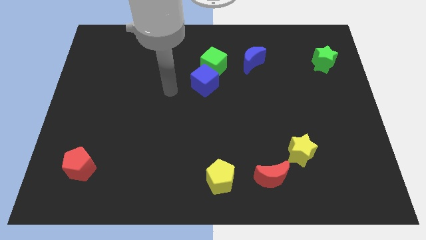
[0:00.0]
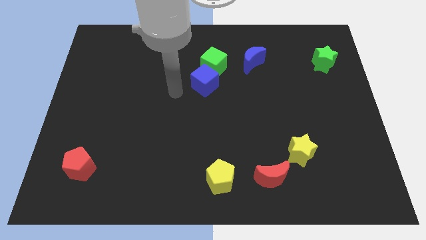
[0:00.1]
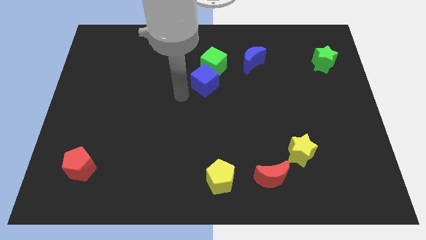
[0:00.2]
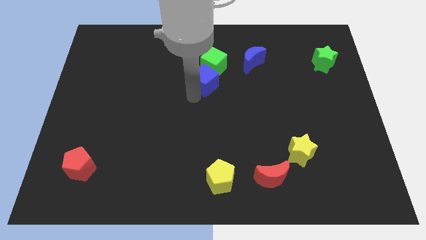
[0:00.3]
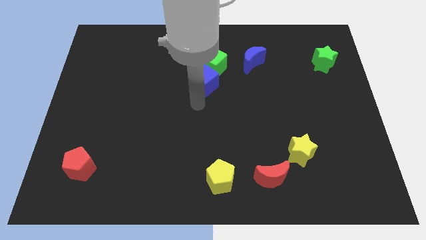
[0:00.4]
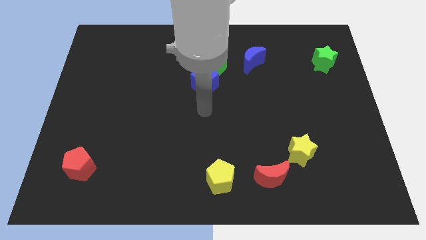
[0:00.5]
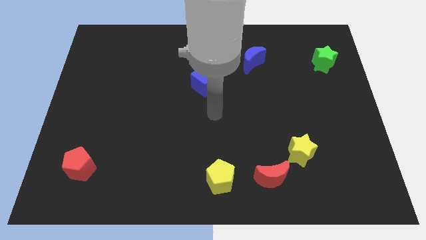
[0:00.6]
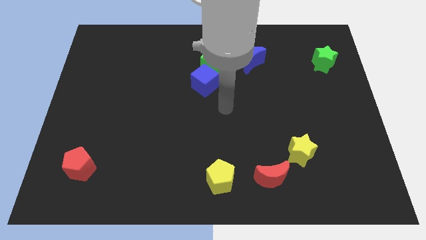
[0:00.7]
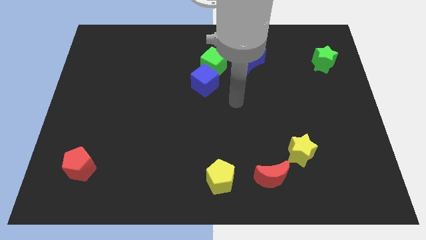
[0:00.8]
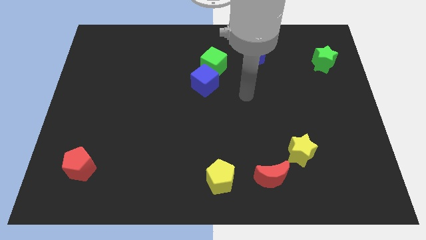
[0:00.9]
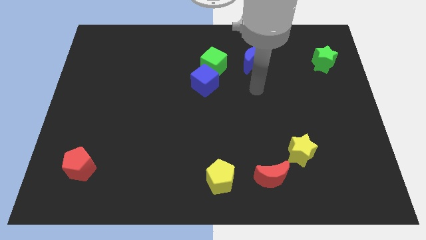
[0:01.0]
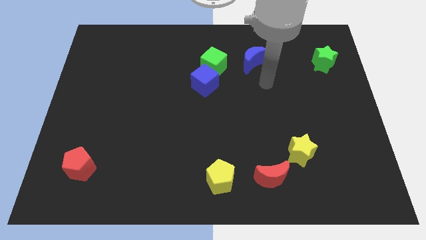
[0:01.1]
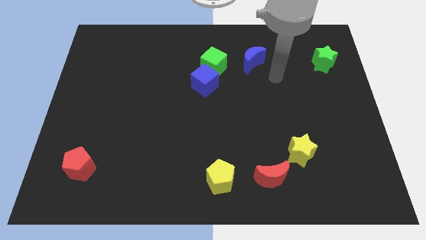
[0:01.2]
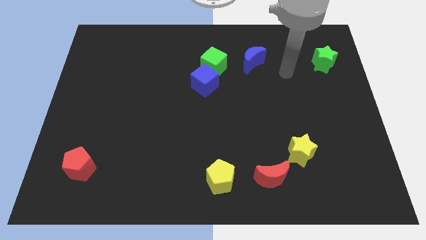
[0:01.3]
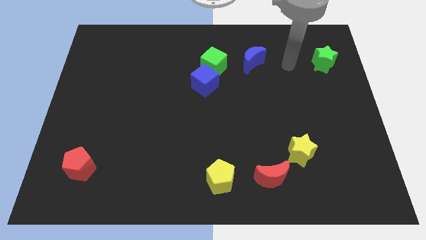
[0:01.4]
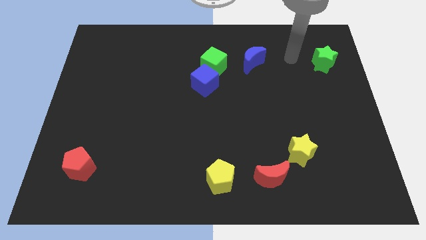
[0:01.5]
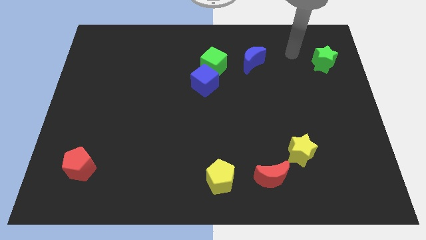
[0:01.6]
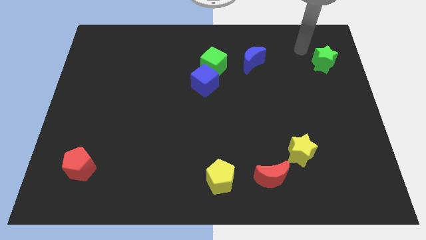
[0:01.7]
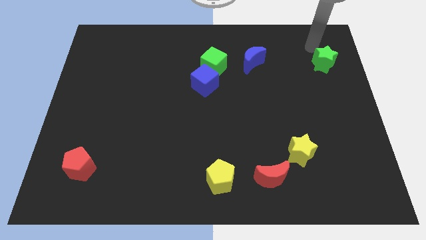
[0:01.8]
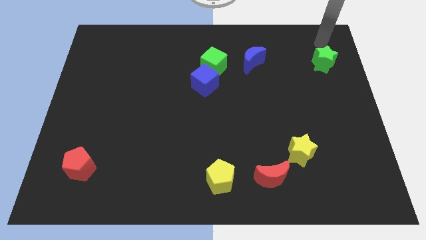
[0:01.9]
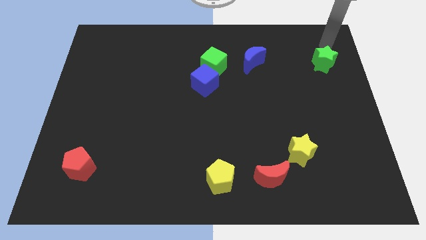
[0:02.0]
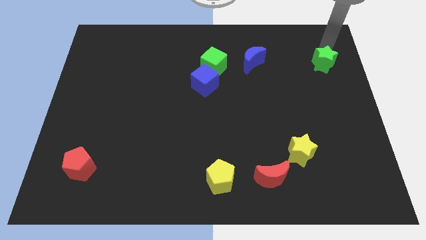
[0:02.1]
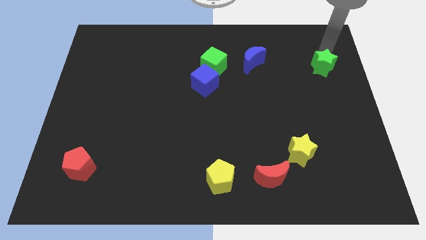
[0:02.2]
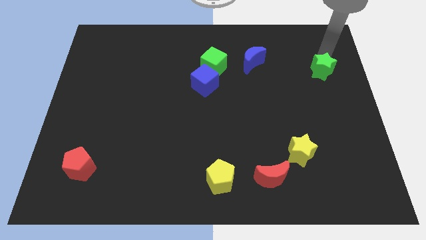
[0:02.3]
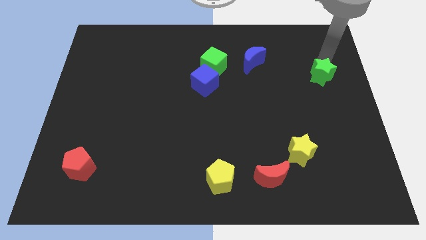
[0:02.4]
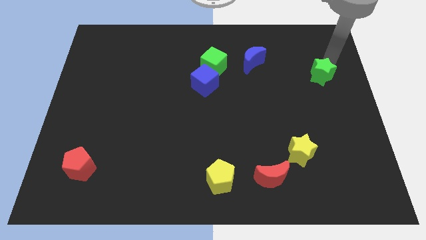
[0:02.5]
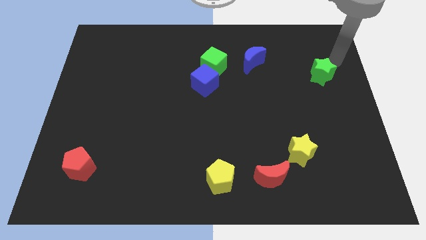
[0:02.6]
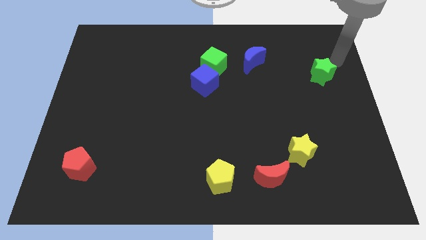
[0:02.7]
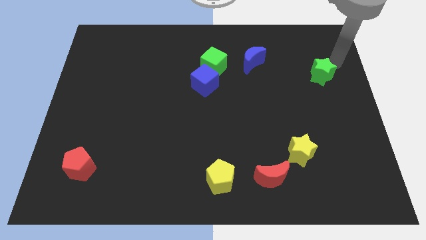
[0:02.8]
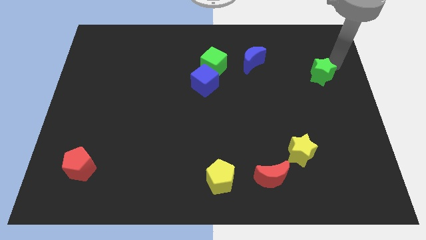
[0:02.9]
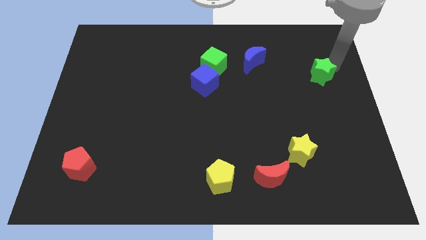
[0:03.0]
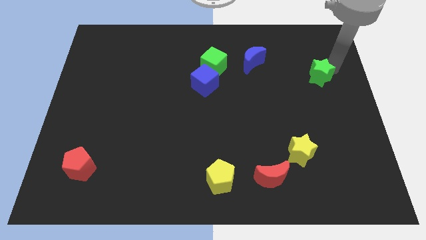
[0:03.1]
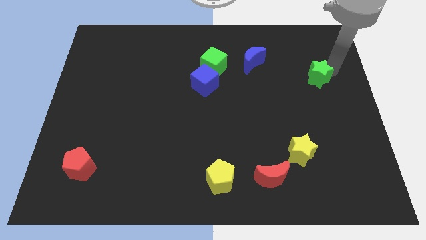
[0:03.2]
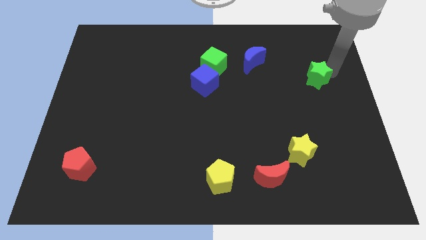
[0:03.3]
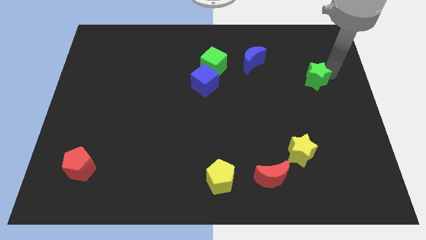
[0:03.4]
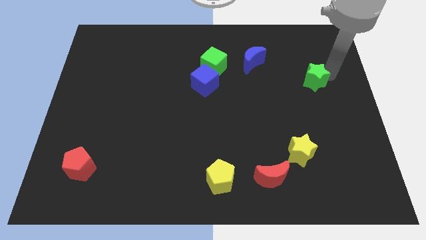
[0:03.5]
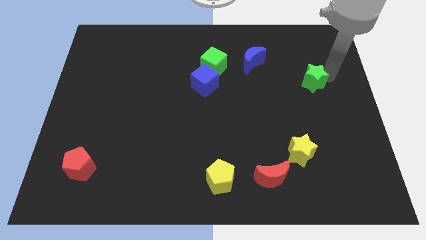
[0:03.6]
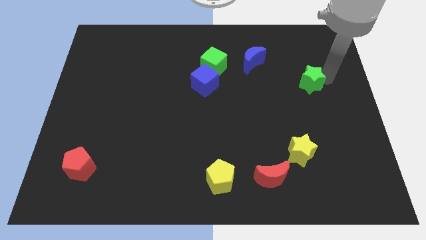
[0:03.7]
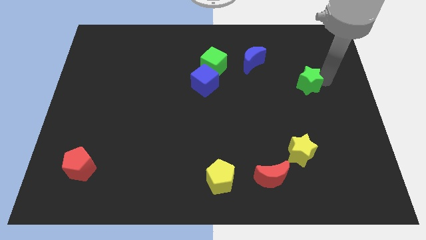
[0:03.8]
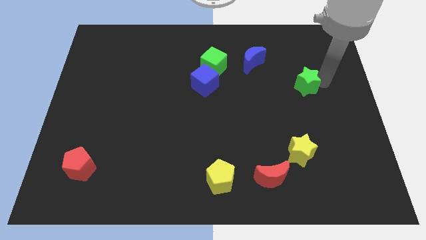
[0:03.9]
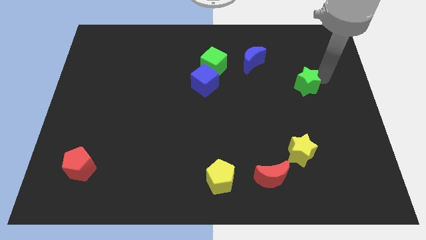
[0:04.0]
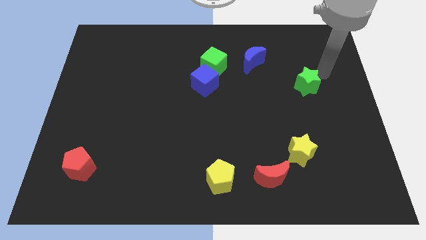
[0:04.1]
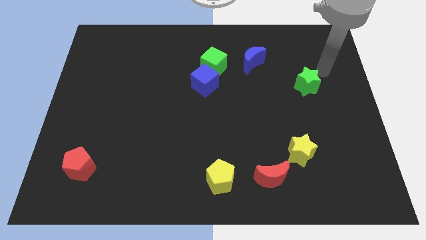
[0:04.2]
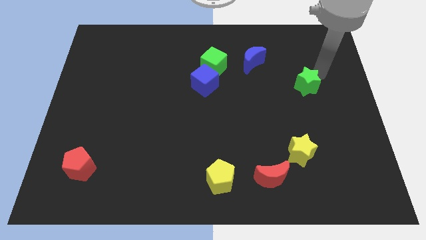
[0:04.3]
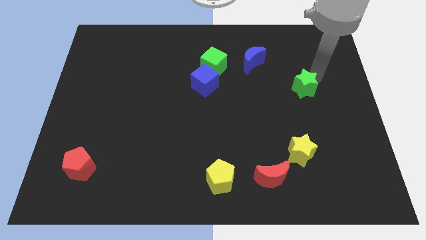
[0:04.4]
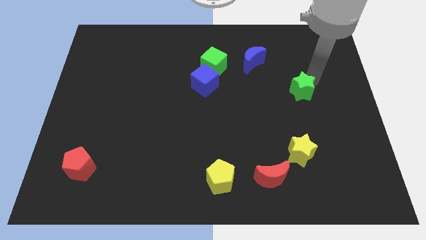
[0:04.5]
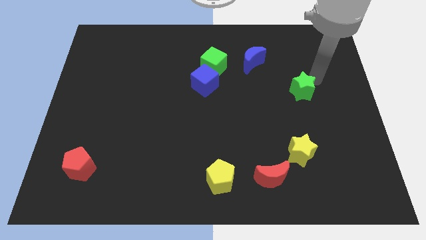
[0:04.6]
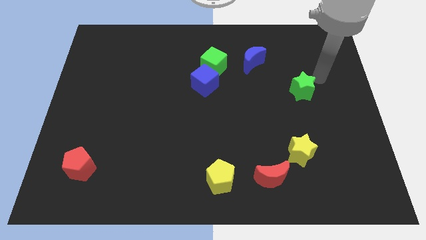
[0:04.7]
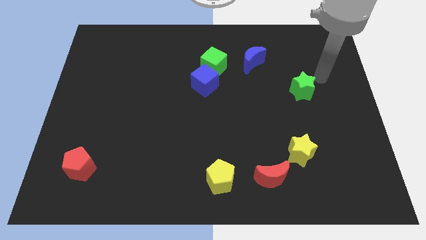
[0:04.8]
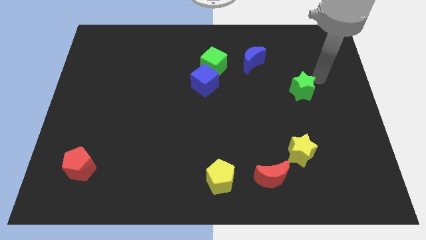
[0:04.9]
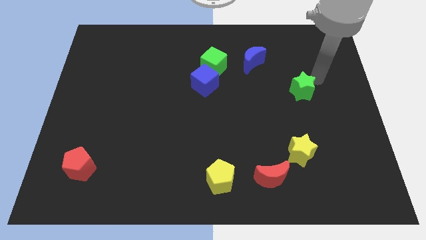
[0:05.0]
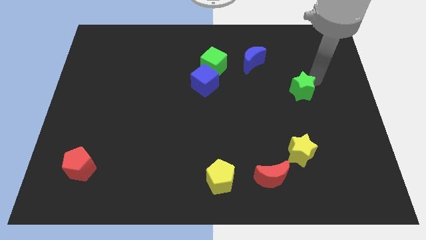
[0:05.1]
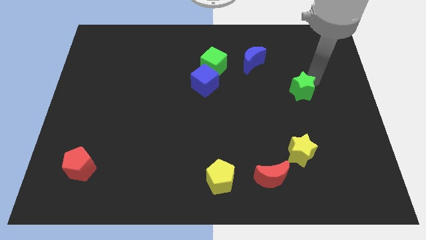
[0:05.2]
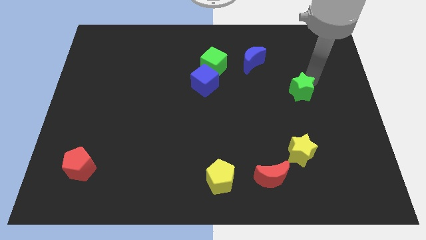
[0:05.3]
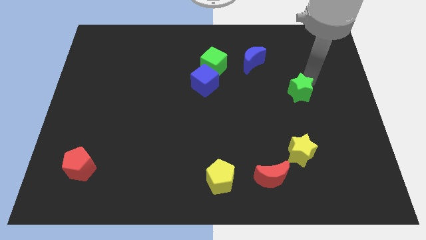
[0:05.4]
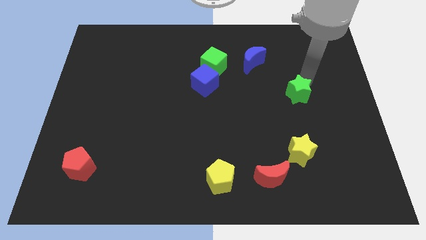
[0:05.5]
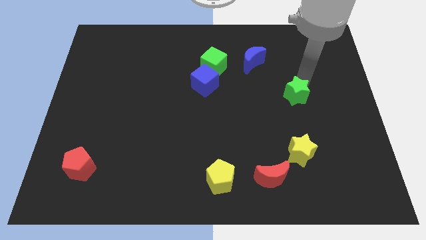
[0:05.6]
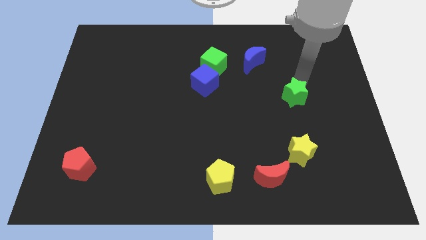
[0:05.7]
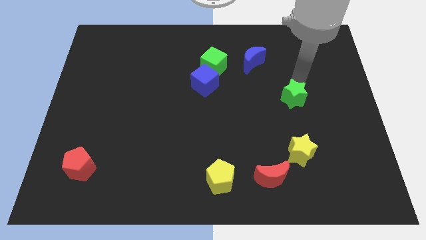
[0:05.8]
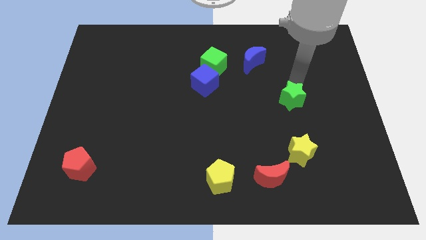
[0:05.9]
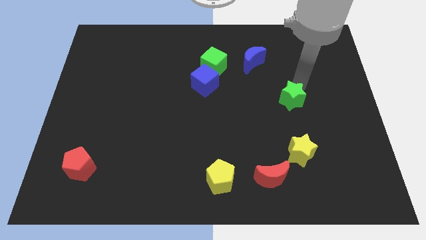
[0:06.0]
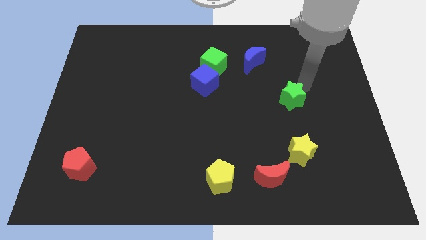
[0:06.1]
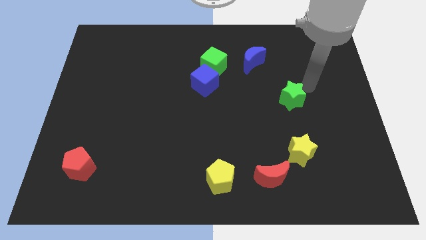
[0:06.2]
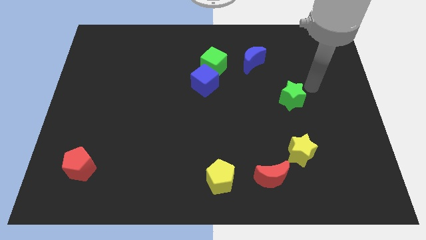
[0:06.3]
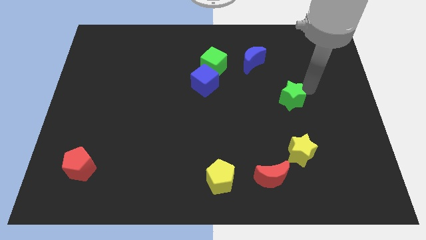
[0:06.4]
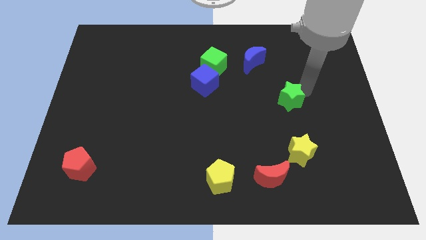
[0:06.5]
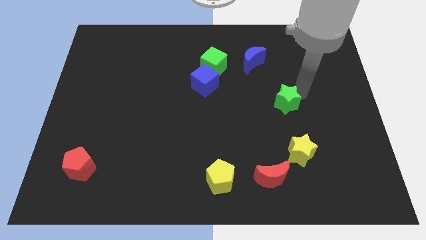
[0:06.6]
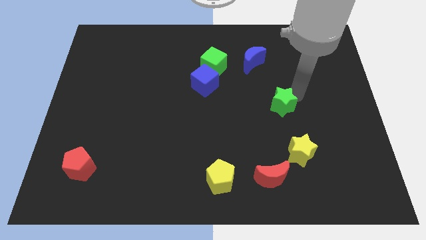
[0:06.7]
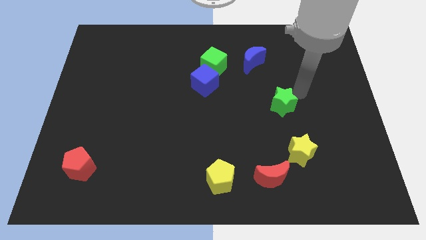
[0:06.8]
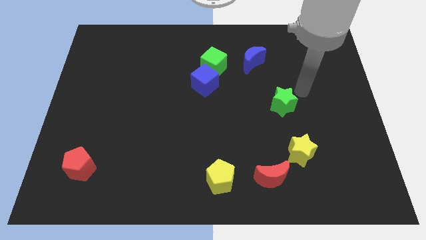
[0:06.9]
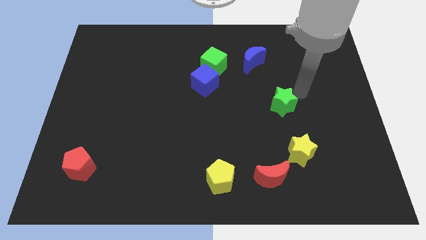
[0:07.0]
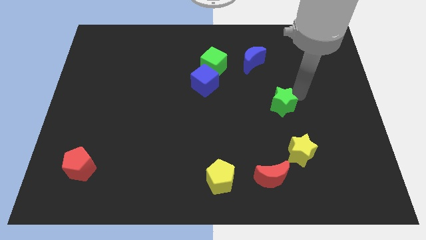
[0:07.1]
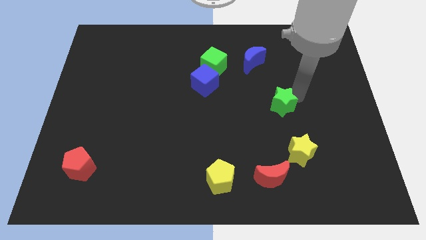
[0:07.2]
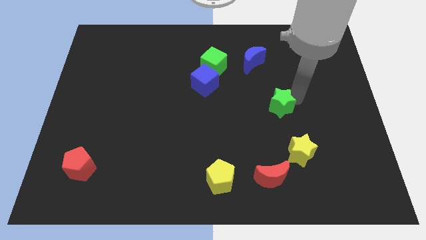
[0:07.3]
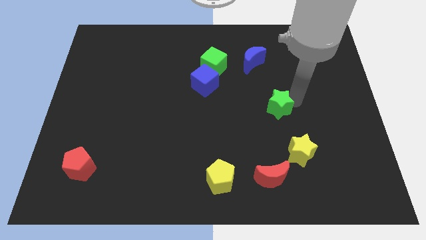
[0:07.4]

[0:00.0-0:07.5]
slide the green star downwards and then to the left

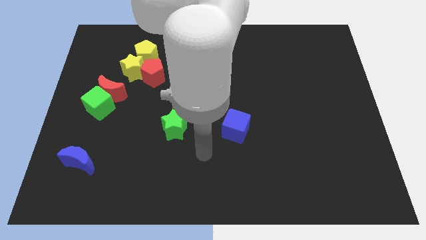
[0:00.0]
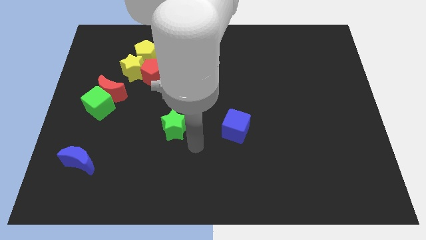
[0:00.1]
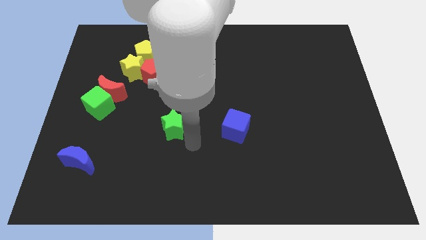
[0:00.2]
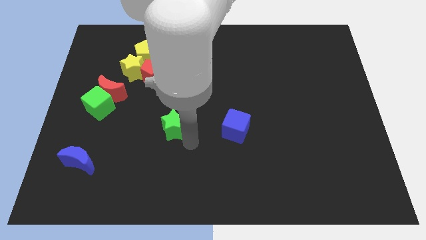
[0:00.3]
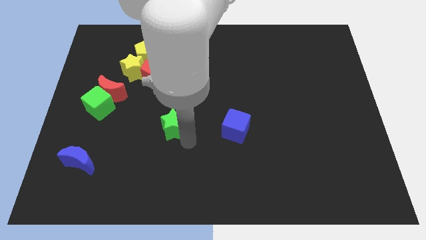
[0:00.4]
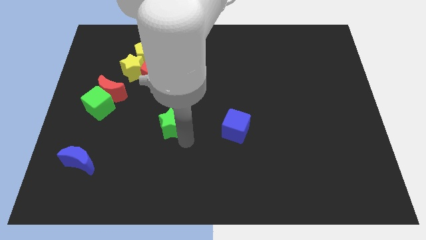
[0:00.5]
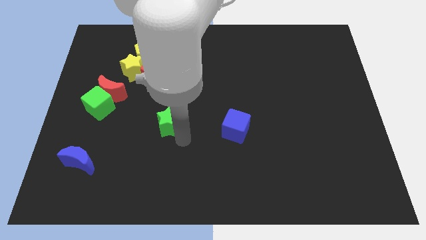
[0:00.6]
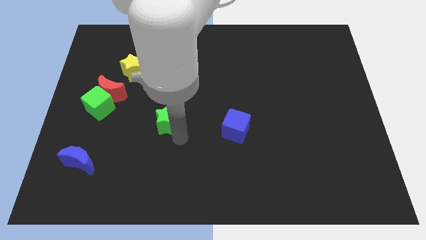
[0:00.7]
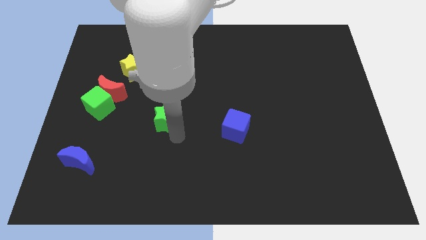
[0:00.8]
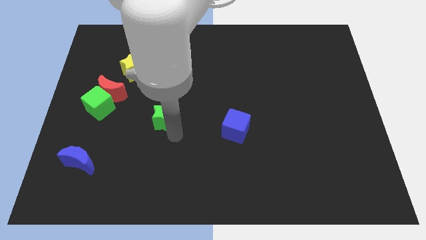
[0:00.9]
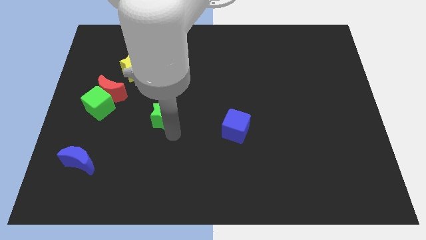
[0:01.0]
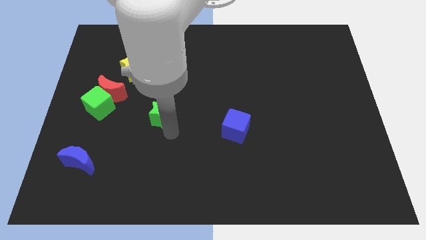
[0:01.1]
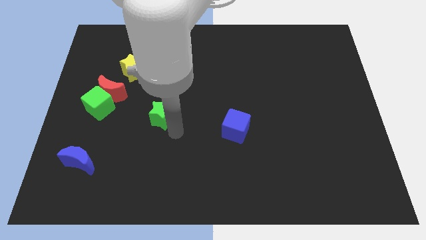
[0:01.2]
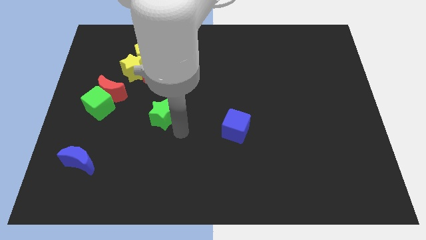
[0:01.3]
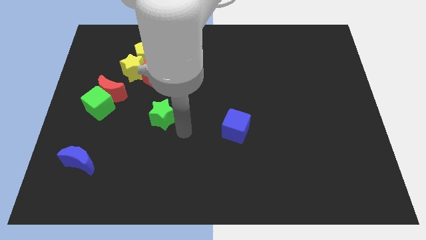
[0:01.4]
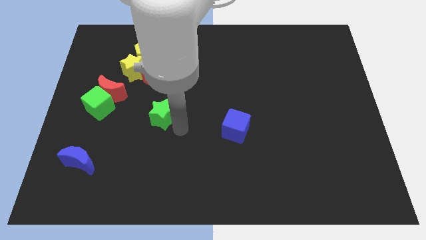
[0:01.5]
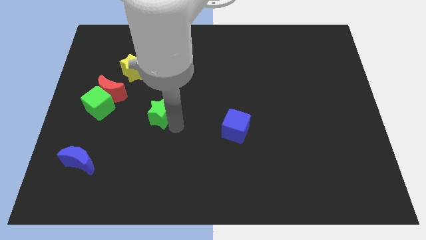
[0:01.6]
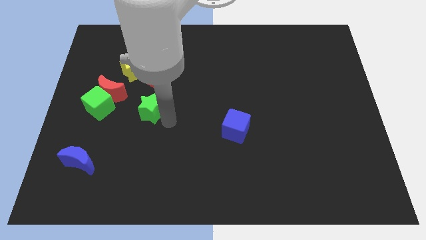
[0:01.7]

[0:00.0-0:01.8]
push the green star diagonally up and to the left a little
